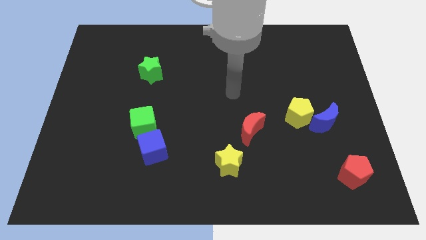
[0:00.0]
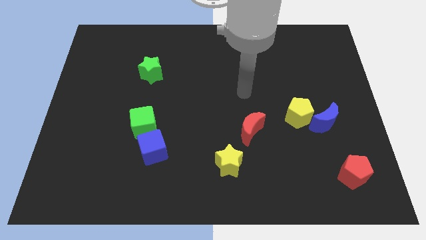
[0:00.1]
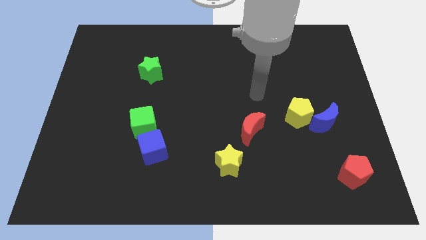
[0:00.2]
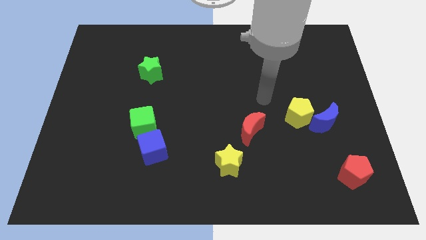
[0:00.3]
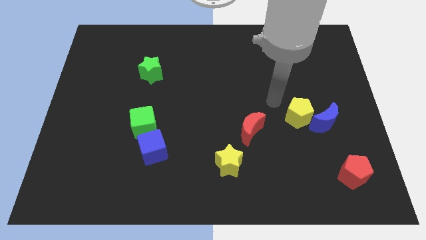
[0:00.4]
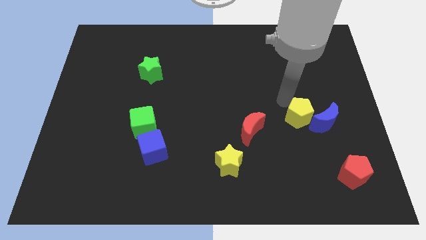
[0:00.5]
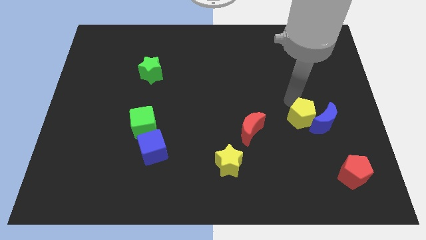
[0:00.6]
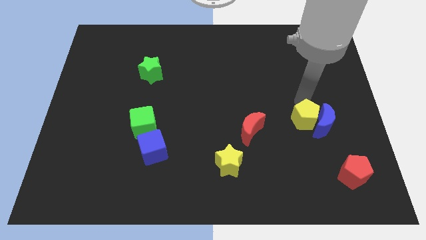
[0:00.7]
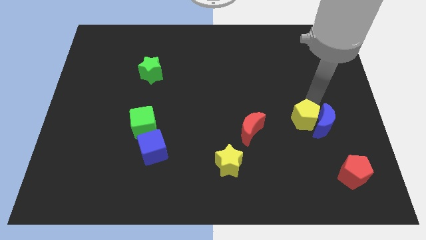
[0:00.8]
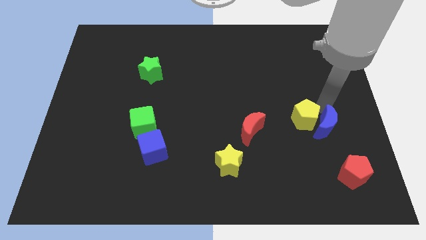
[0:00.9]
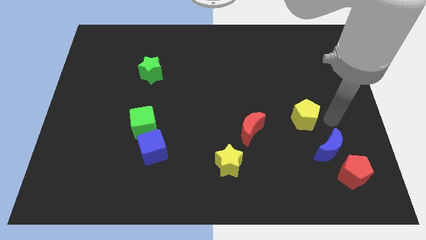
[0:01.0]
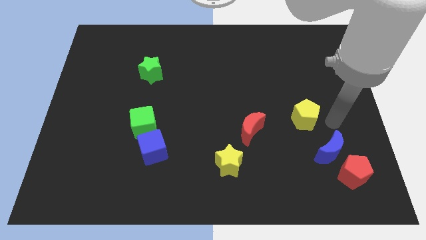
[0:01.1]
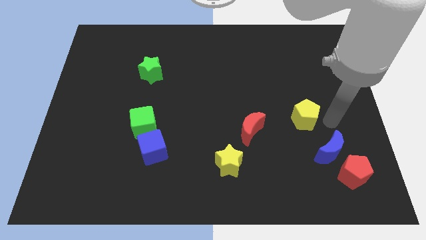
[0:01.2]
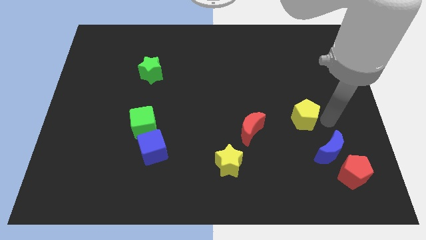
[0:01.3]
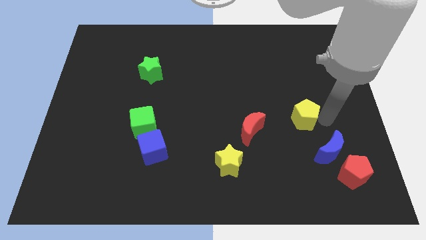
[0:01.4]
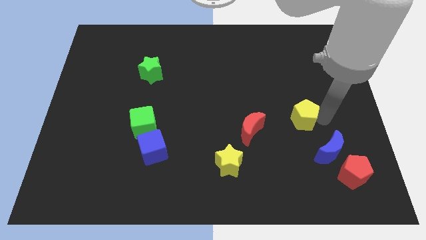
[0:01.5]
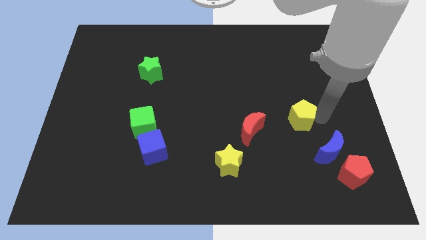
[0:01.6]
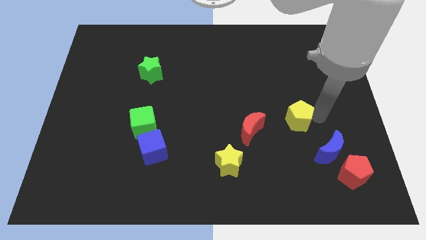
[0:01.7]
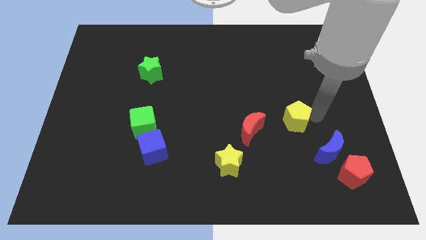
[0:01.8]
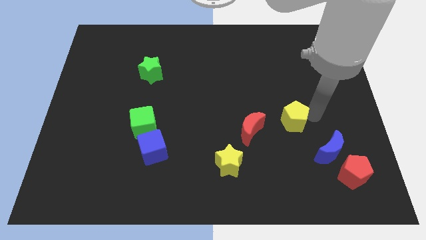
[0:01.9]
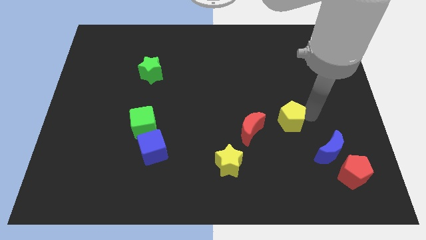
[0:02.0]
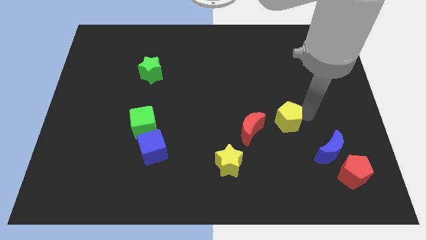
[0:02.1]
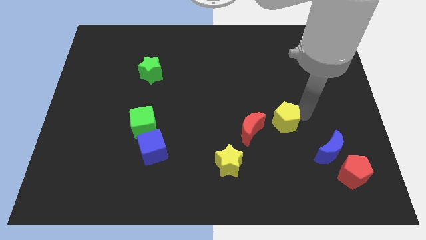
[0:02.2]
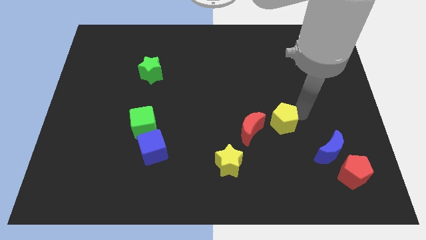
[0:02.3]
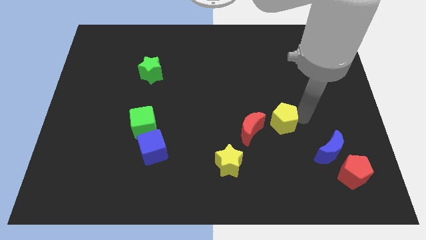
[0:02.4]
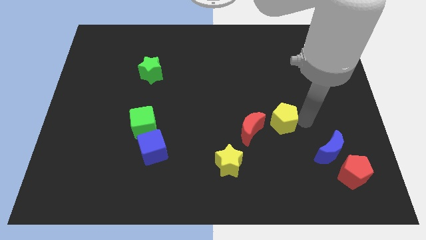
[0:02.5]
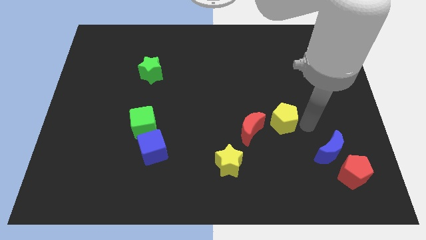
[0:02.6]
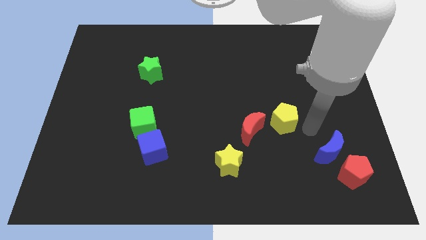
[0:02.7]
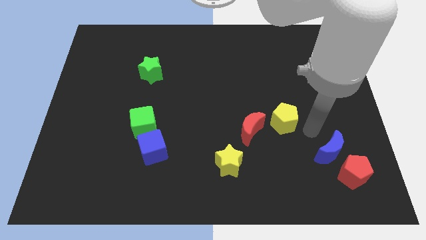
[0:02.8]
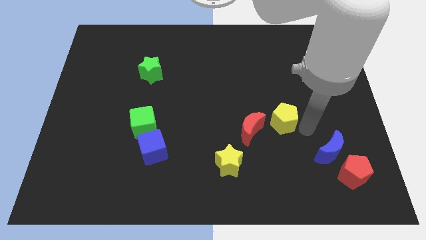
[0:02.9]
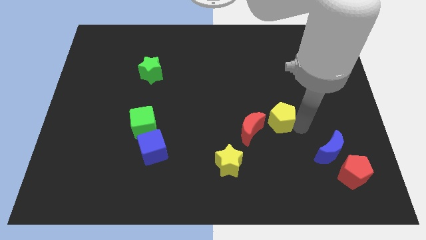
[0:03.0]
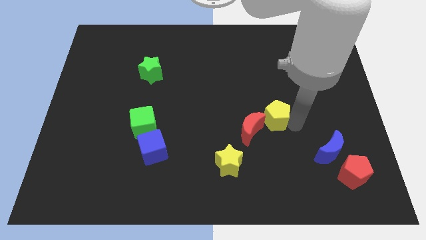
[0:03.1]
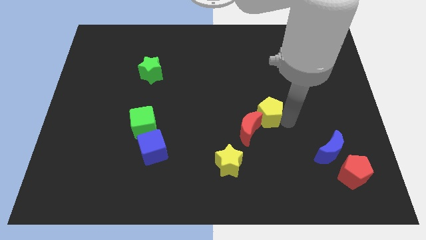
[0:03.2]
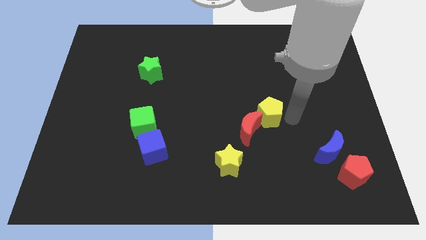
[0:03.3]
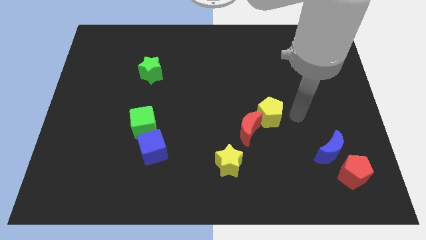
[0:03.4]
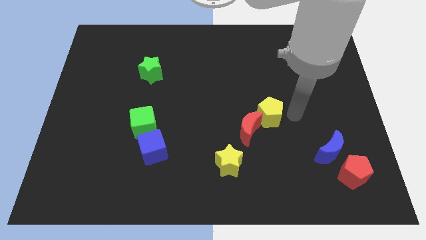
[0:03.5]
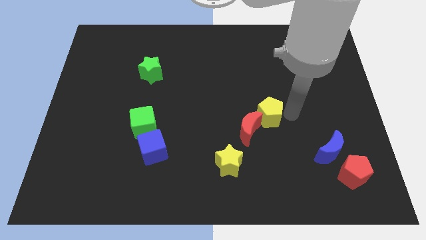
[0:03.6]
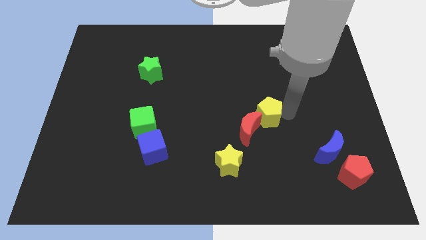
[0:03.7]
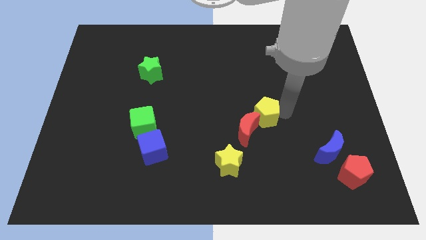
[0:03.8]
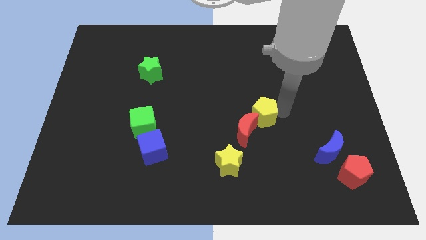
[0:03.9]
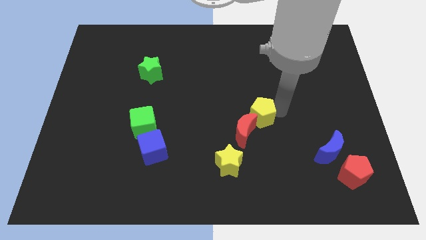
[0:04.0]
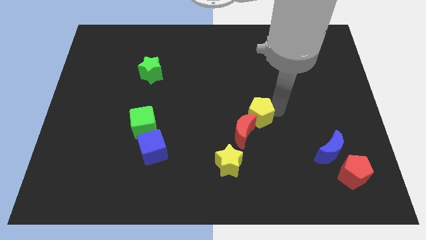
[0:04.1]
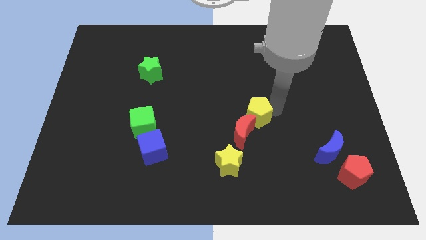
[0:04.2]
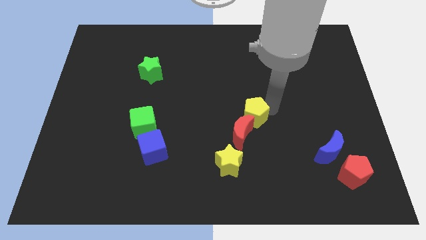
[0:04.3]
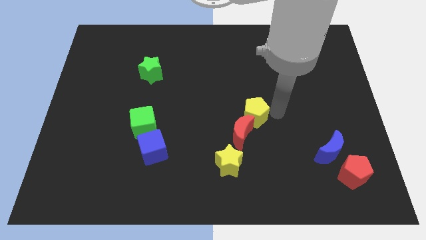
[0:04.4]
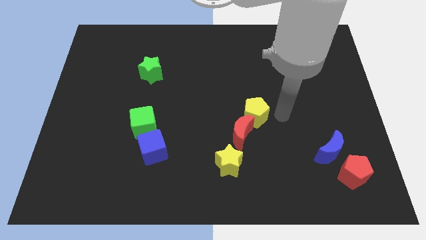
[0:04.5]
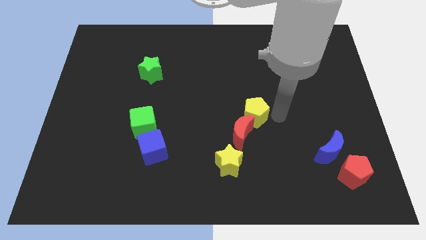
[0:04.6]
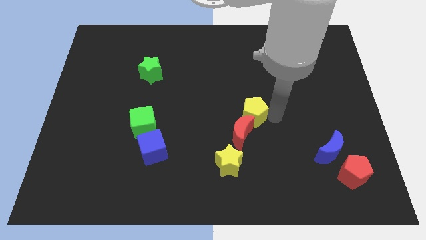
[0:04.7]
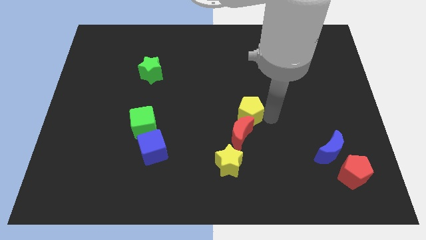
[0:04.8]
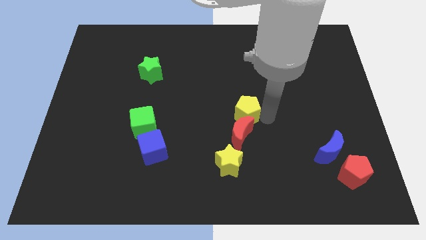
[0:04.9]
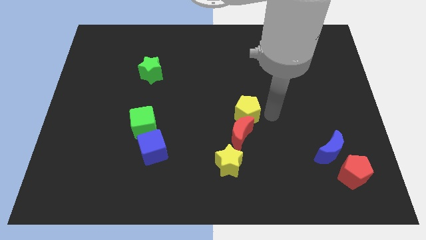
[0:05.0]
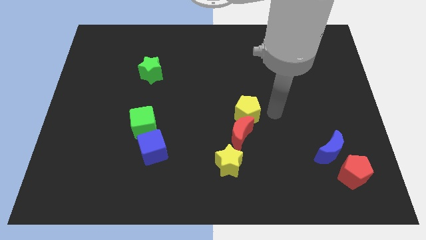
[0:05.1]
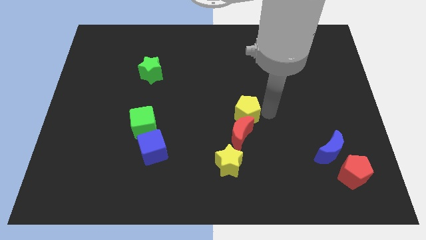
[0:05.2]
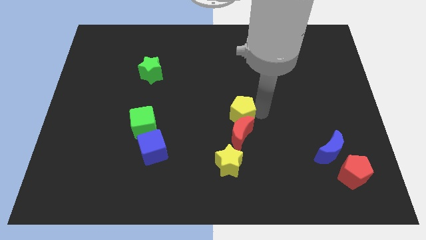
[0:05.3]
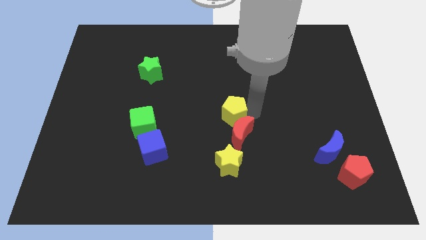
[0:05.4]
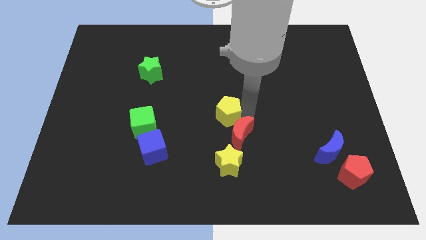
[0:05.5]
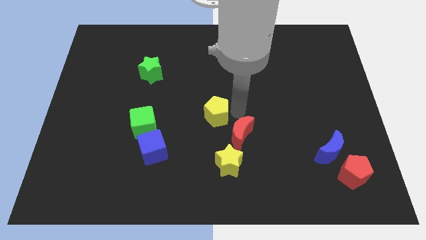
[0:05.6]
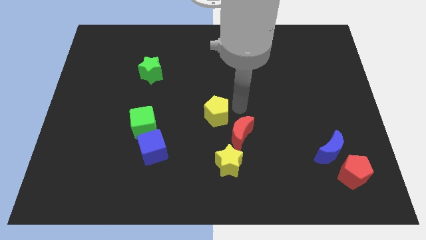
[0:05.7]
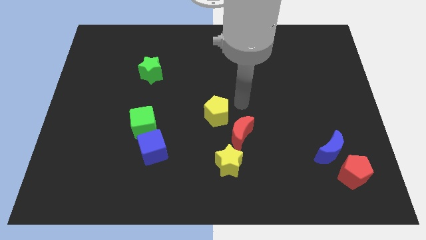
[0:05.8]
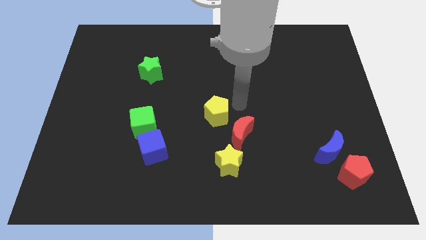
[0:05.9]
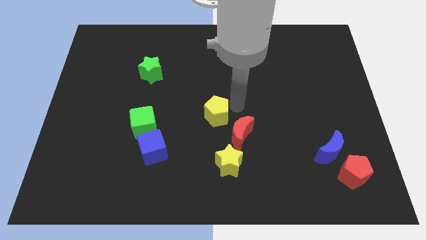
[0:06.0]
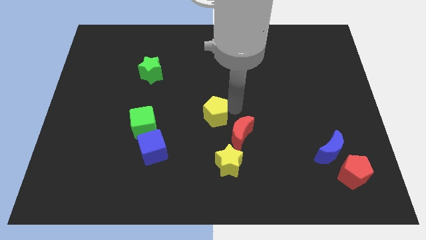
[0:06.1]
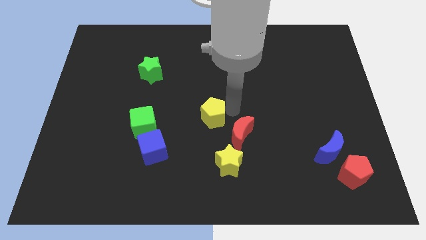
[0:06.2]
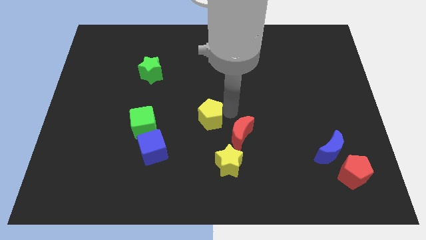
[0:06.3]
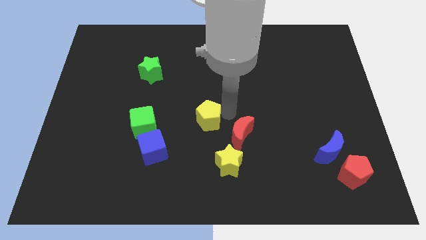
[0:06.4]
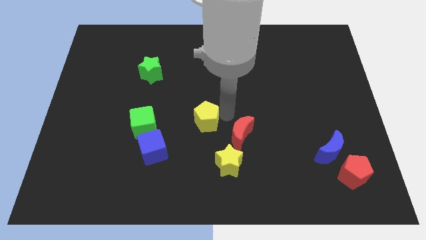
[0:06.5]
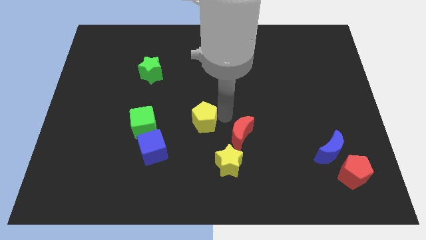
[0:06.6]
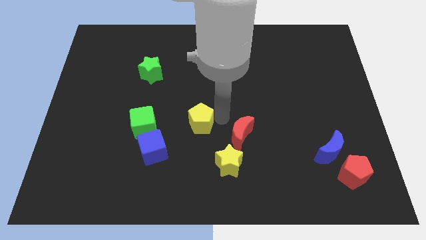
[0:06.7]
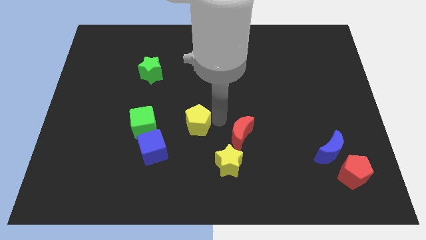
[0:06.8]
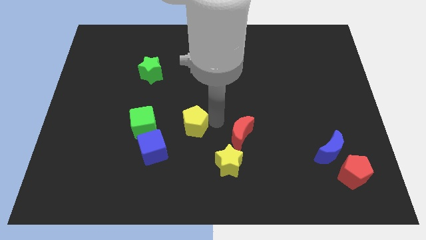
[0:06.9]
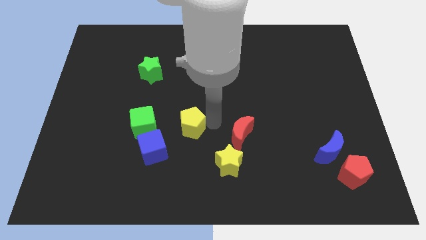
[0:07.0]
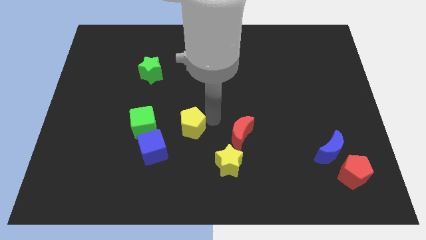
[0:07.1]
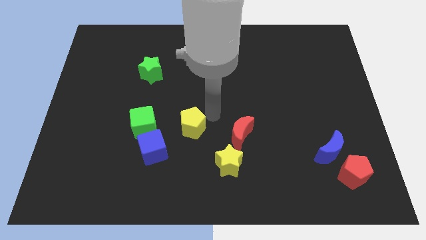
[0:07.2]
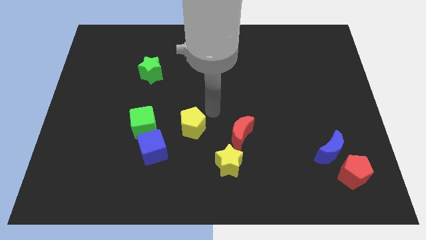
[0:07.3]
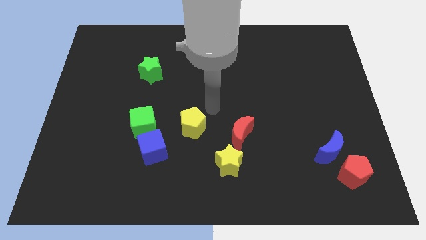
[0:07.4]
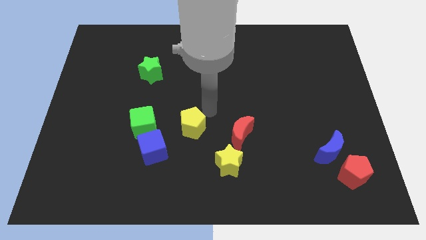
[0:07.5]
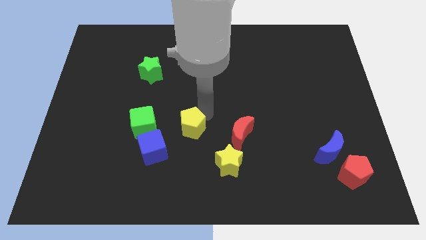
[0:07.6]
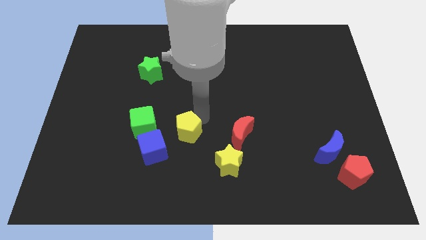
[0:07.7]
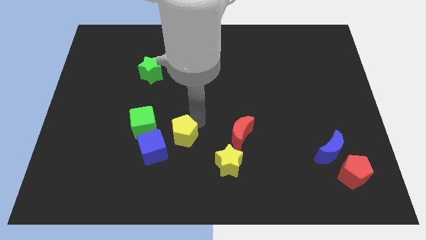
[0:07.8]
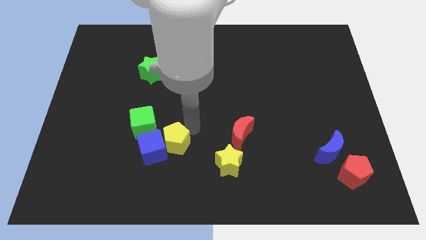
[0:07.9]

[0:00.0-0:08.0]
move the yellow pentagon to the blue cube
